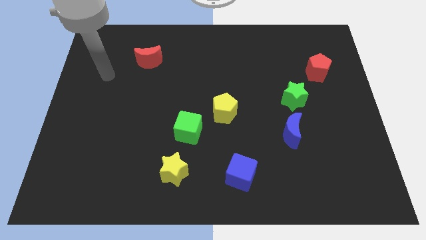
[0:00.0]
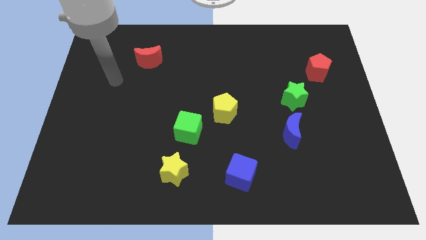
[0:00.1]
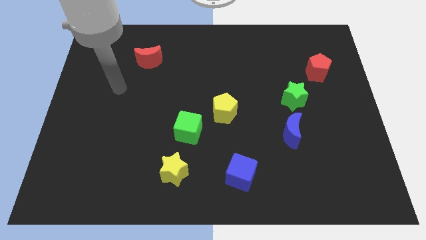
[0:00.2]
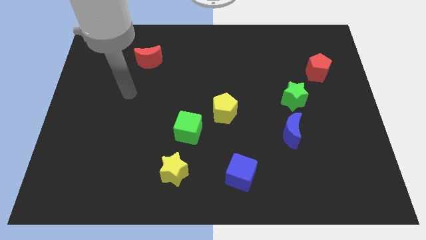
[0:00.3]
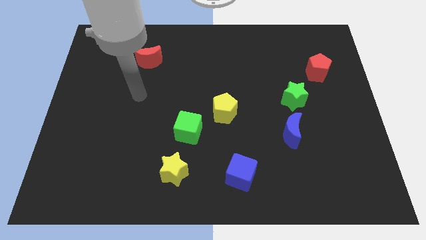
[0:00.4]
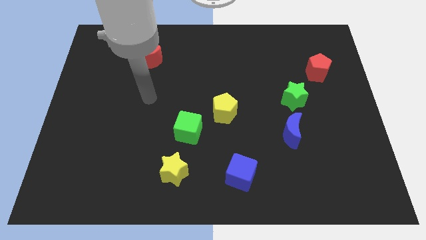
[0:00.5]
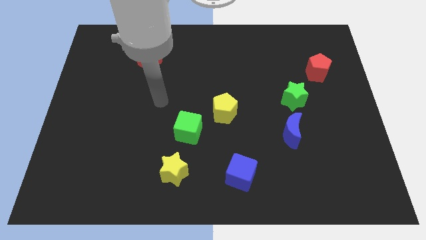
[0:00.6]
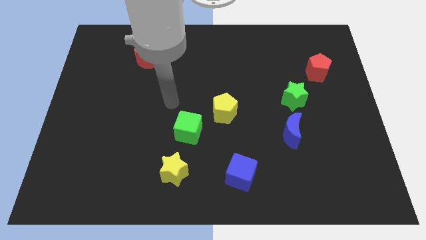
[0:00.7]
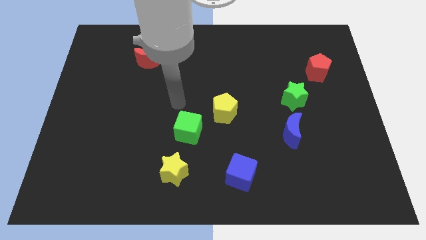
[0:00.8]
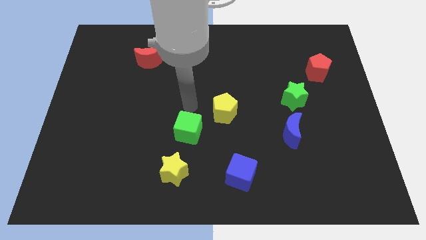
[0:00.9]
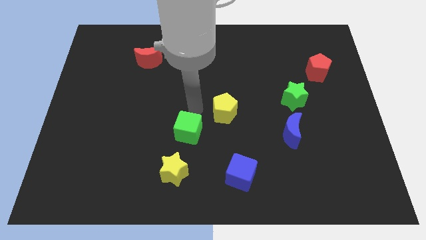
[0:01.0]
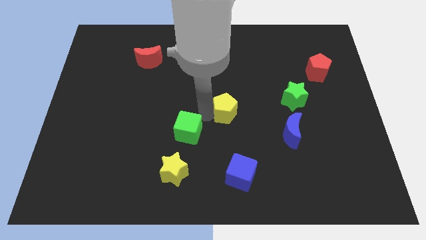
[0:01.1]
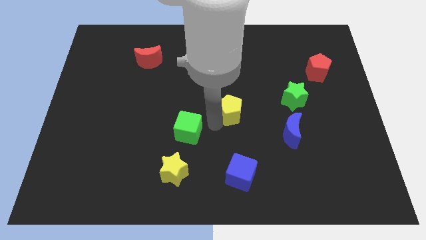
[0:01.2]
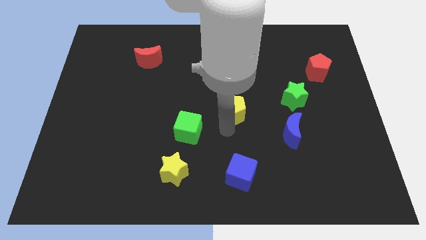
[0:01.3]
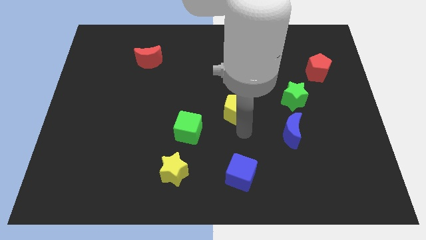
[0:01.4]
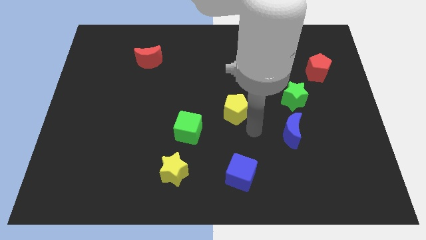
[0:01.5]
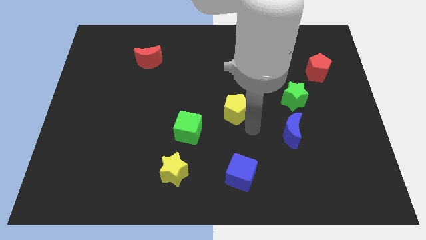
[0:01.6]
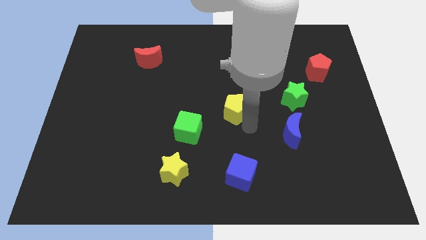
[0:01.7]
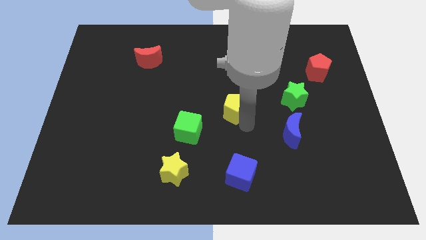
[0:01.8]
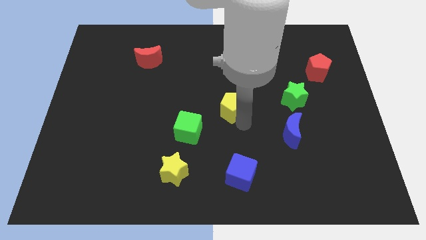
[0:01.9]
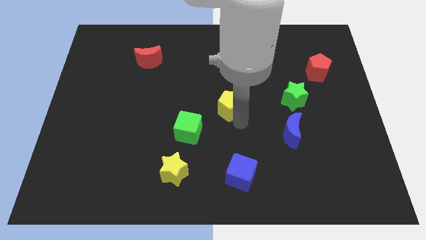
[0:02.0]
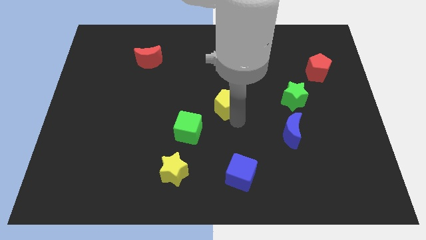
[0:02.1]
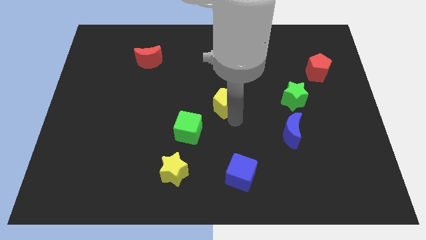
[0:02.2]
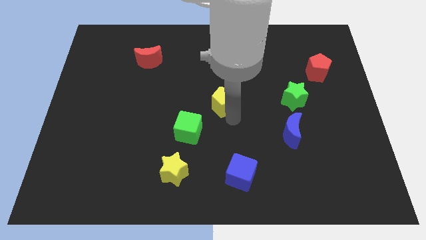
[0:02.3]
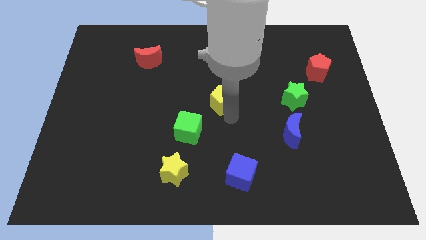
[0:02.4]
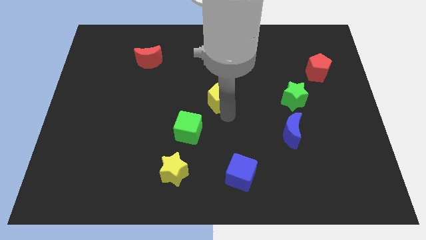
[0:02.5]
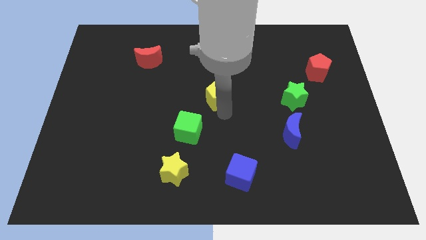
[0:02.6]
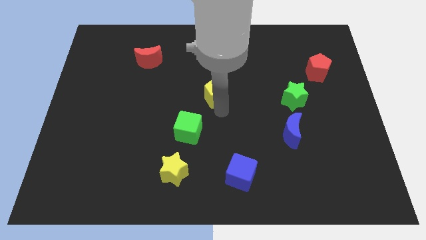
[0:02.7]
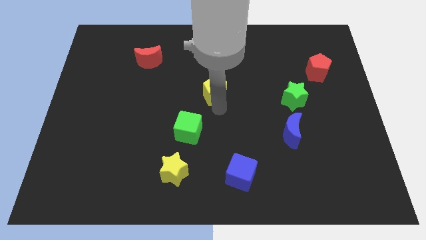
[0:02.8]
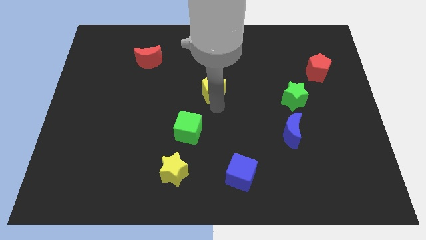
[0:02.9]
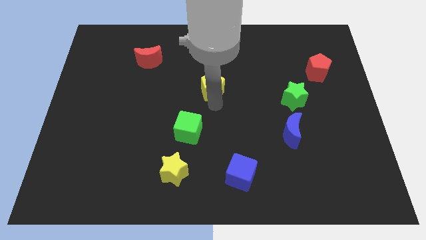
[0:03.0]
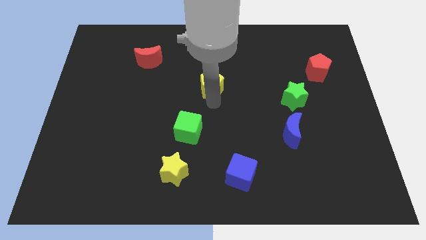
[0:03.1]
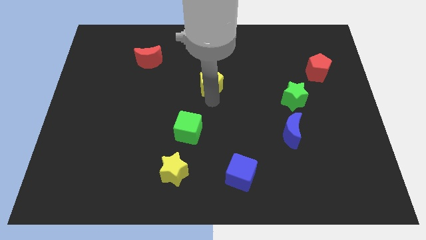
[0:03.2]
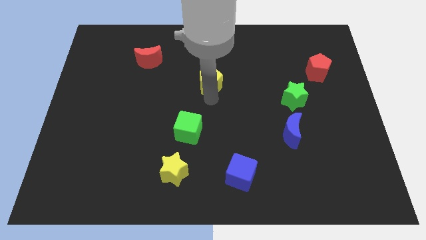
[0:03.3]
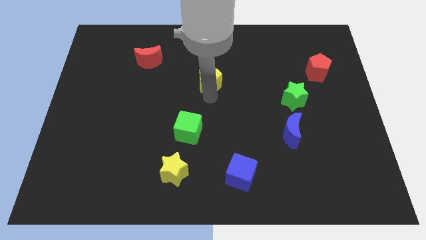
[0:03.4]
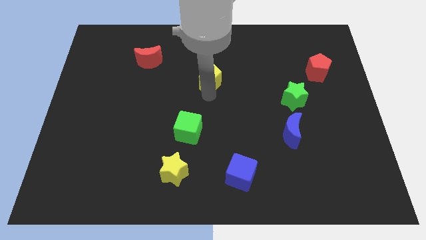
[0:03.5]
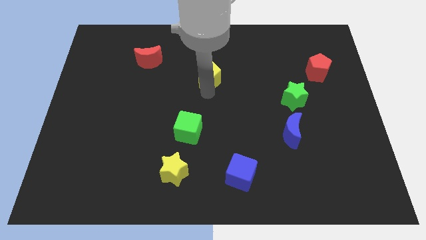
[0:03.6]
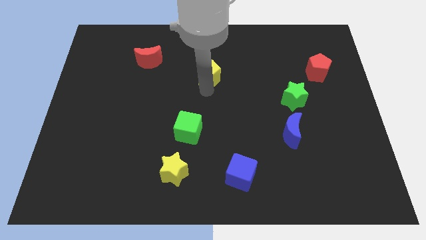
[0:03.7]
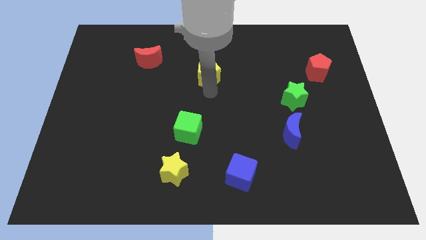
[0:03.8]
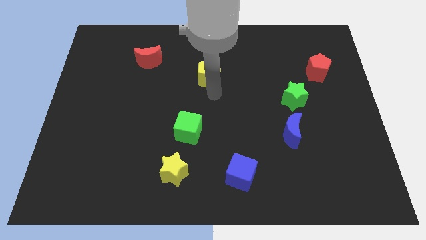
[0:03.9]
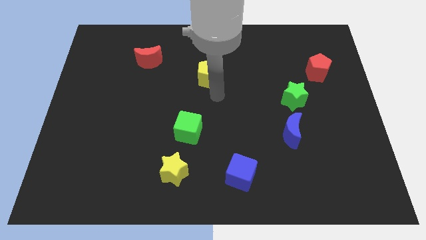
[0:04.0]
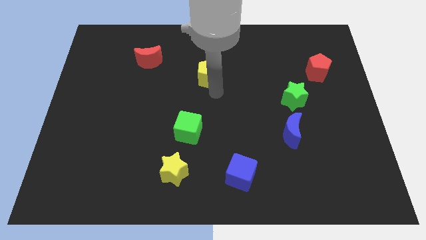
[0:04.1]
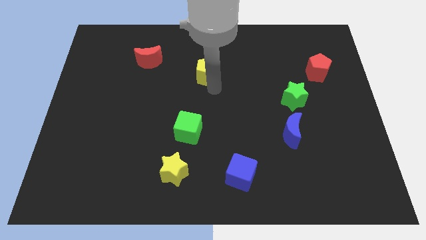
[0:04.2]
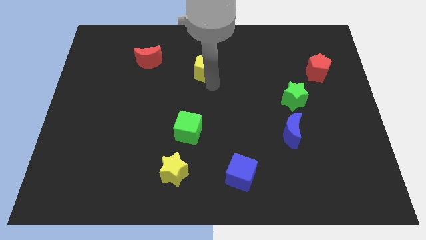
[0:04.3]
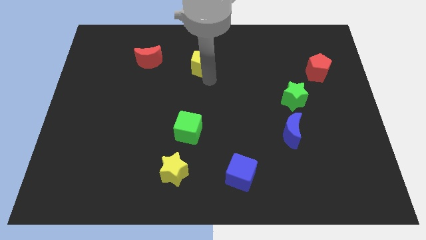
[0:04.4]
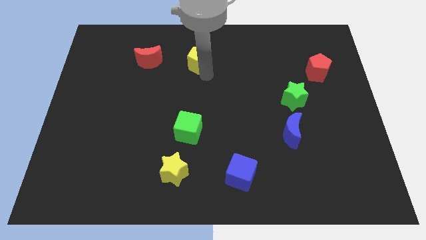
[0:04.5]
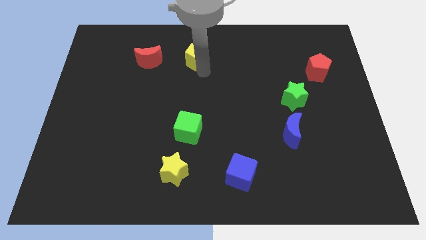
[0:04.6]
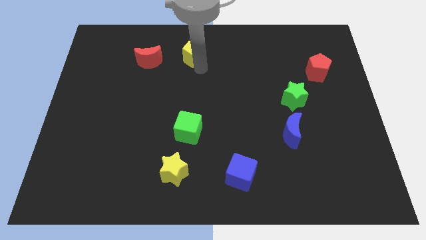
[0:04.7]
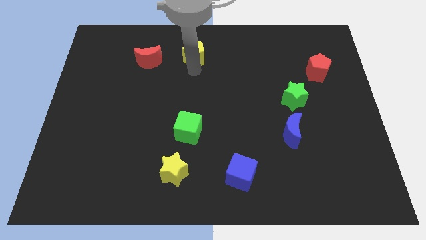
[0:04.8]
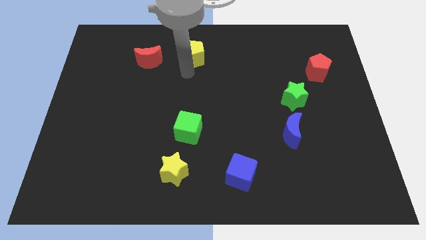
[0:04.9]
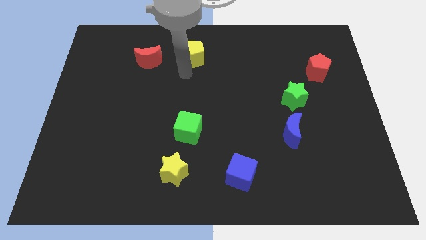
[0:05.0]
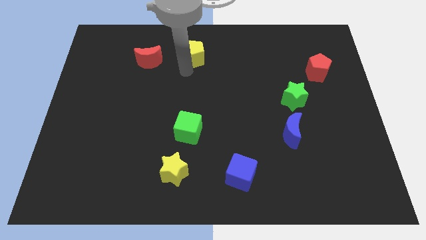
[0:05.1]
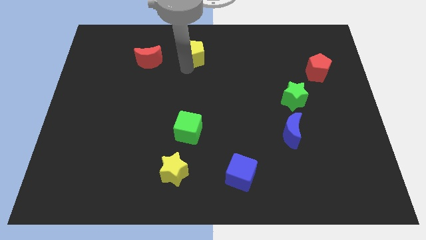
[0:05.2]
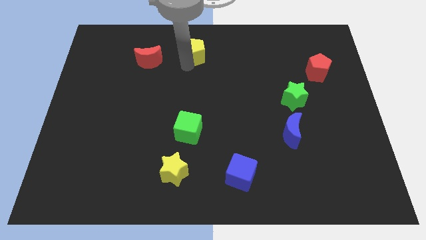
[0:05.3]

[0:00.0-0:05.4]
put the yellow pentagon to the top
